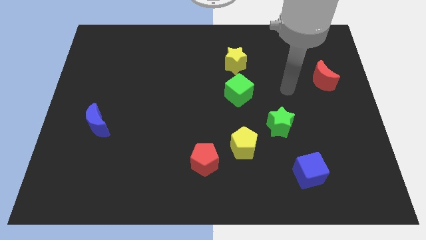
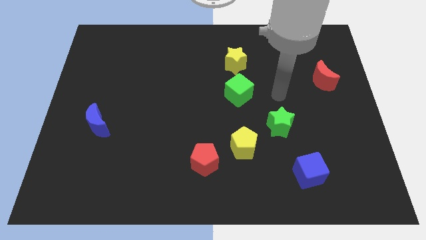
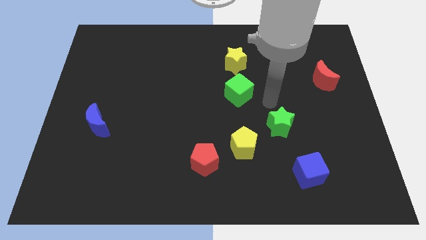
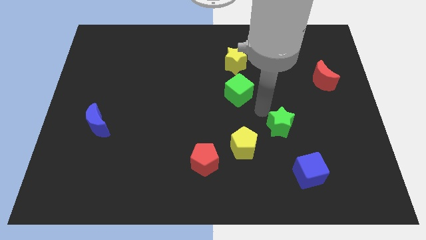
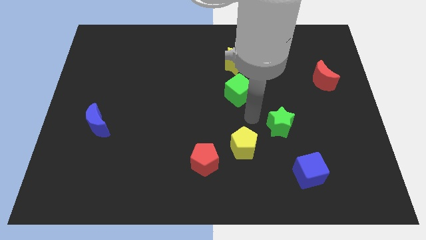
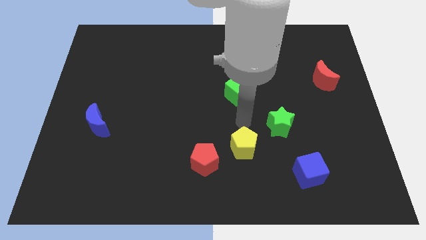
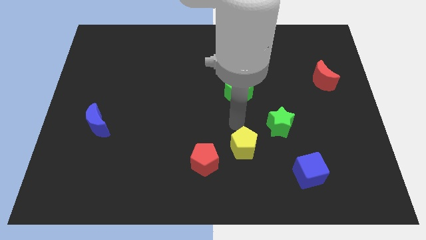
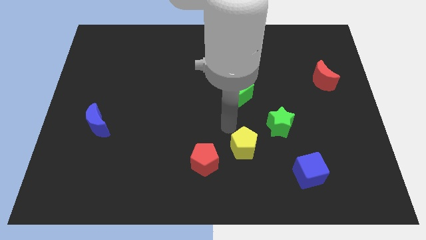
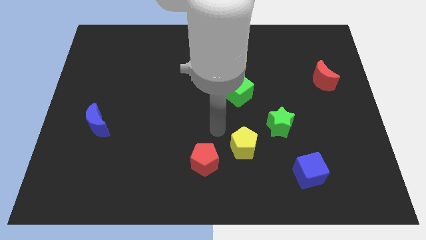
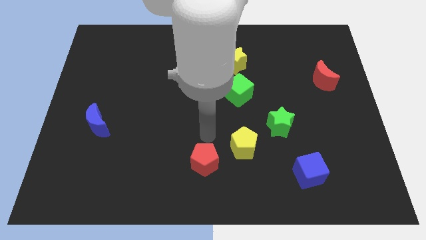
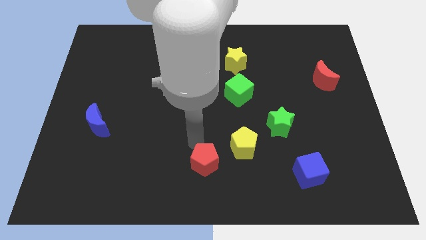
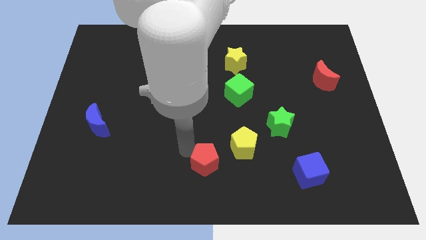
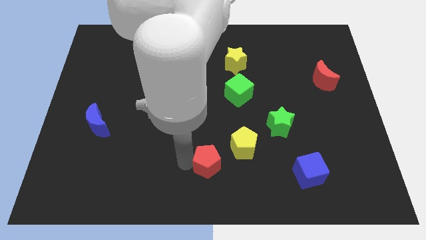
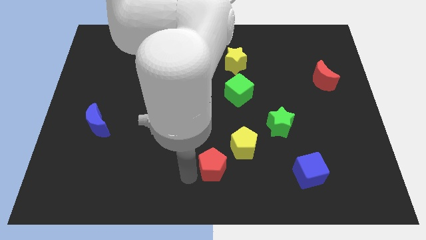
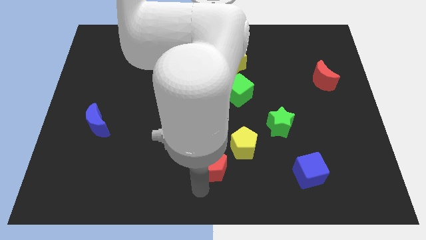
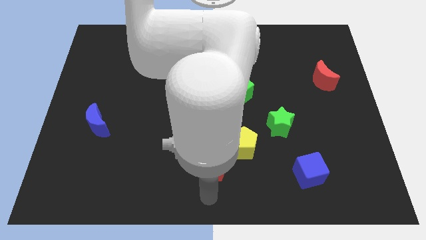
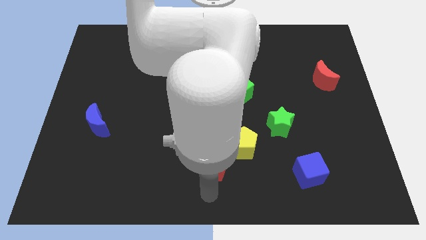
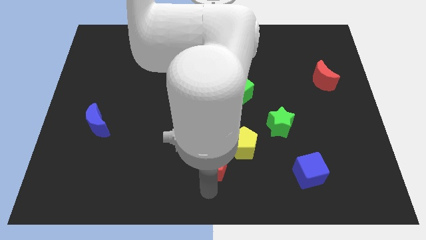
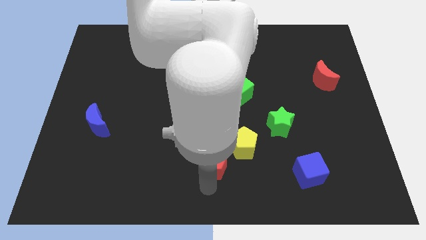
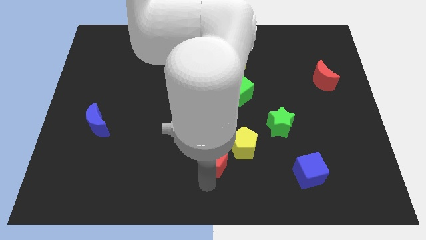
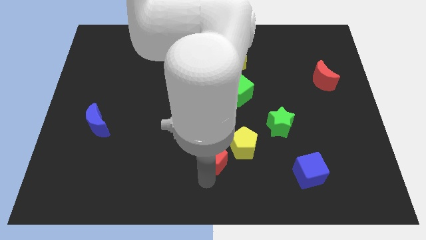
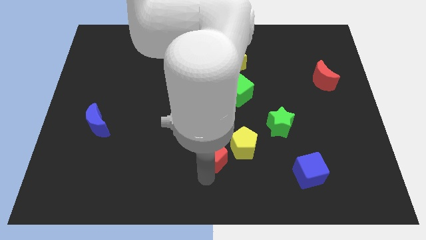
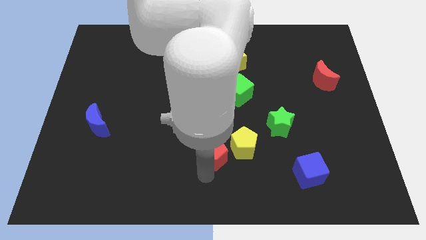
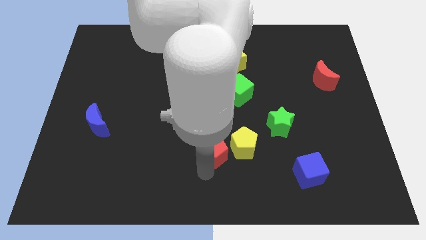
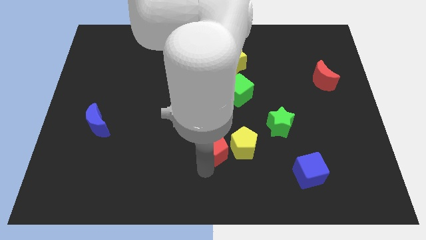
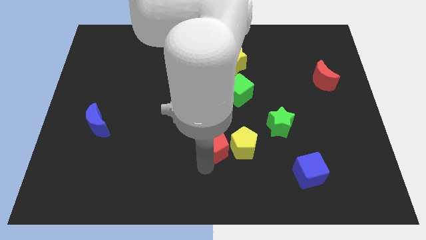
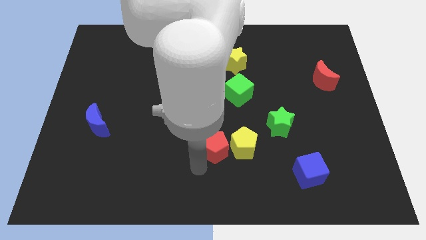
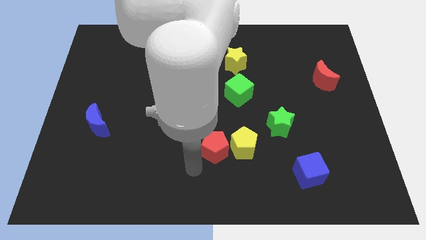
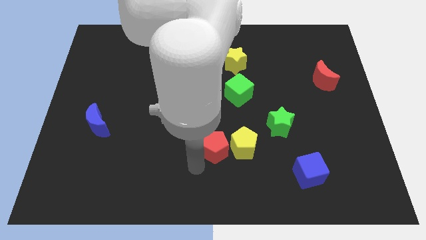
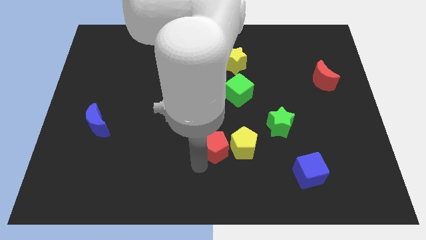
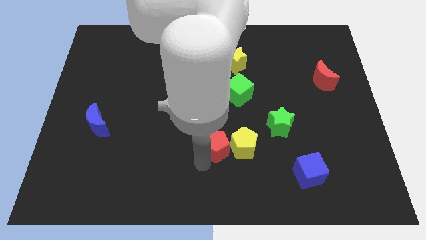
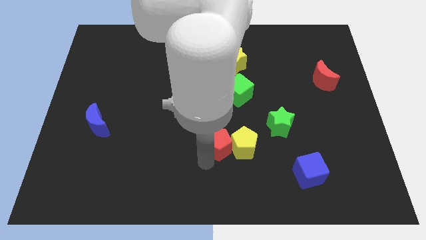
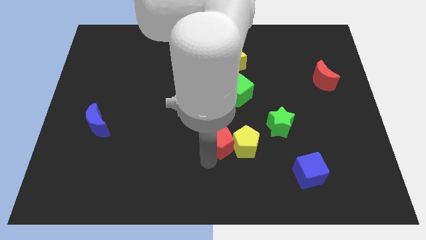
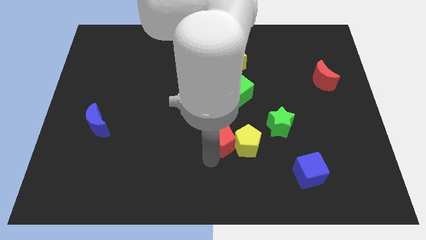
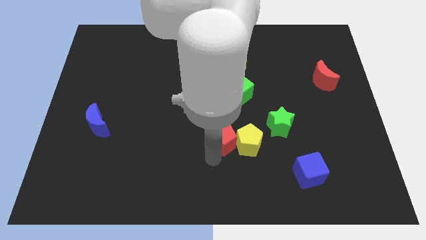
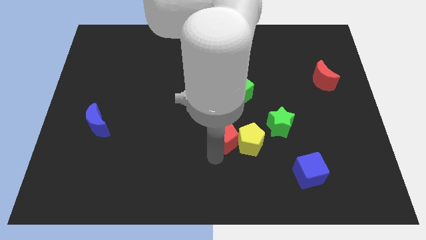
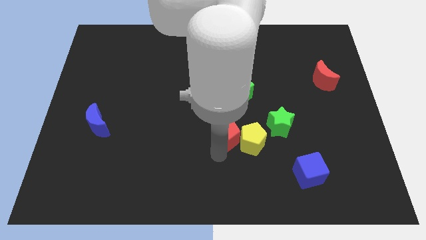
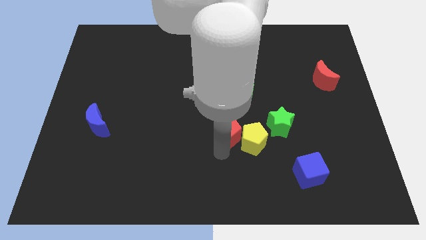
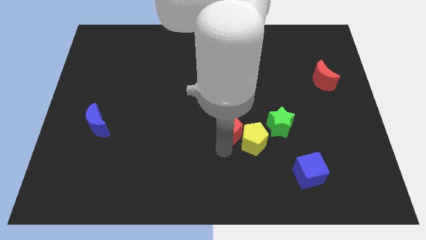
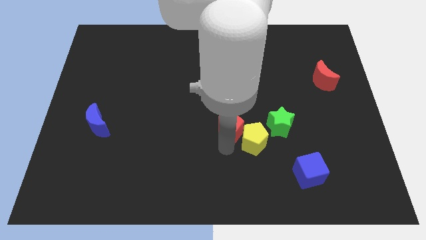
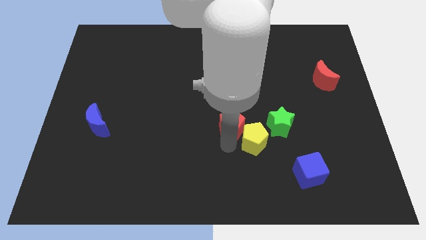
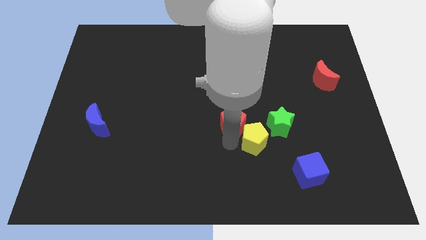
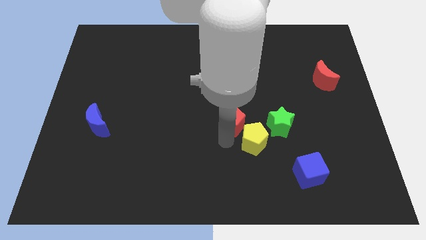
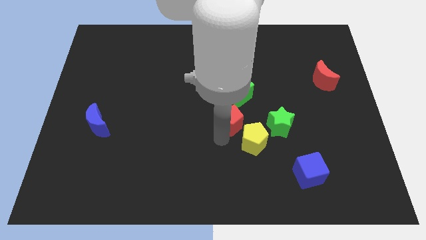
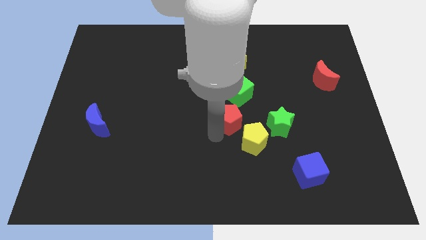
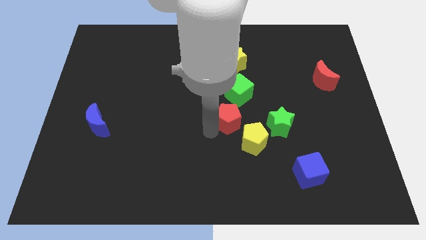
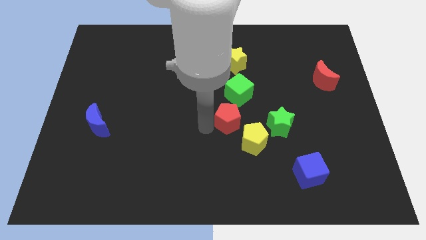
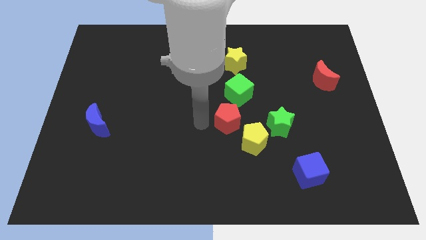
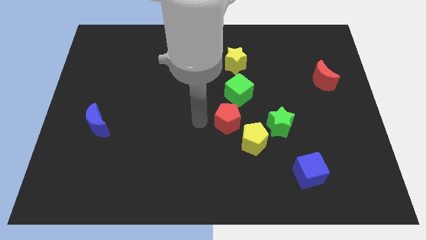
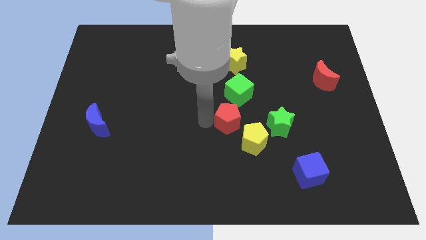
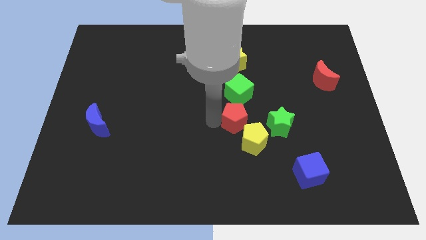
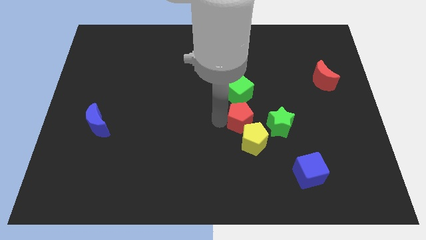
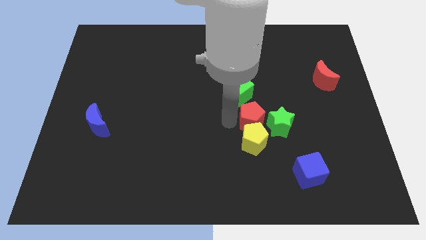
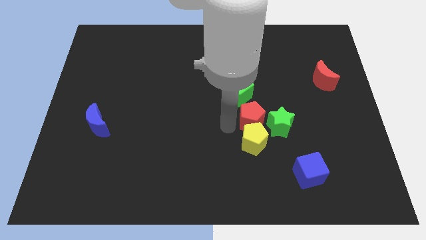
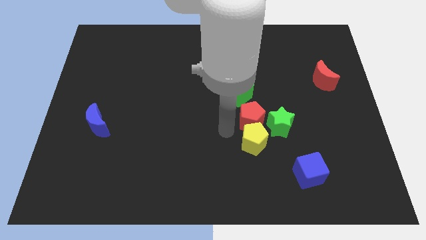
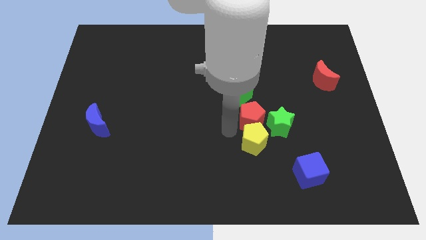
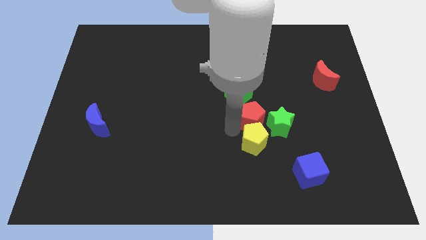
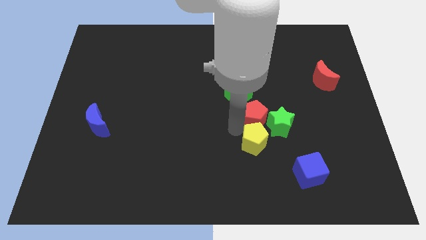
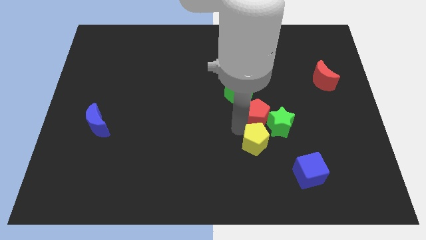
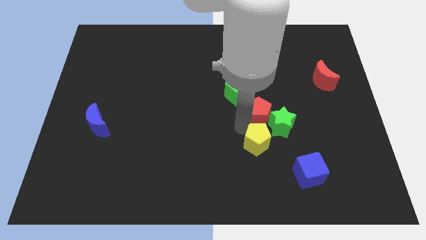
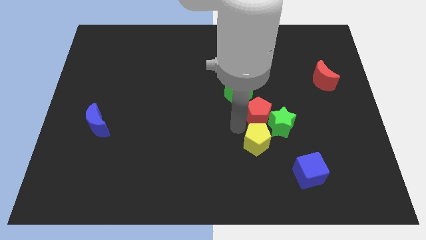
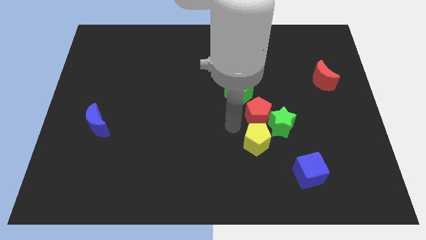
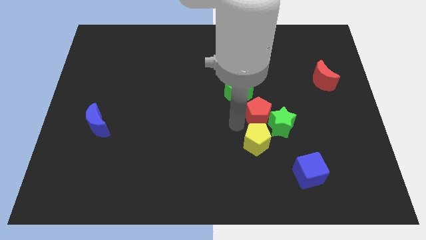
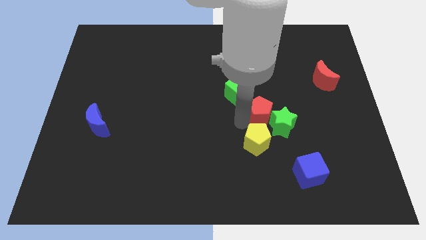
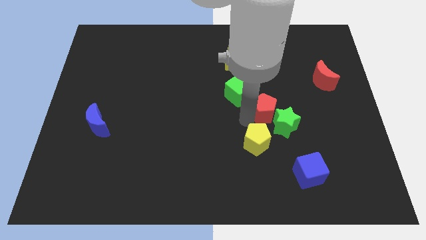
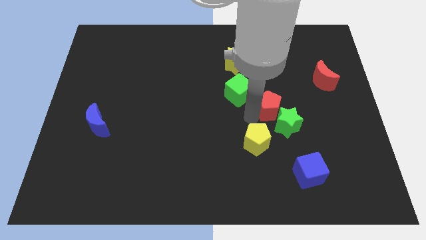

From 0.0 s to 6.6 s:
slide the red pentagon just right of the green cube

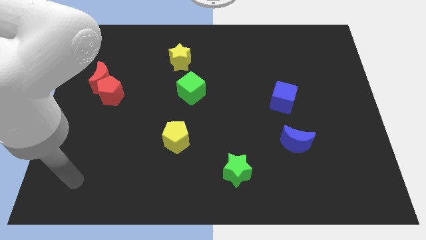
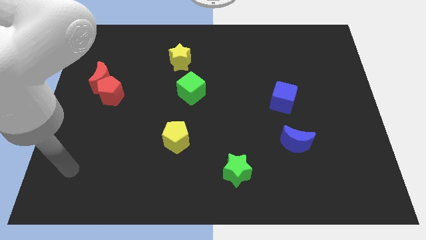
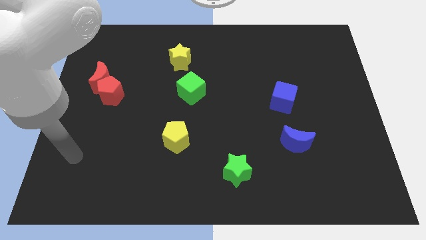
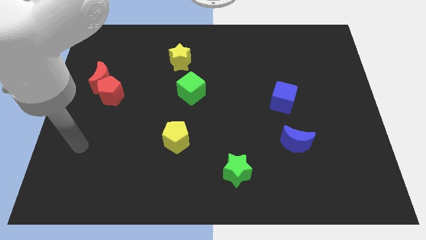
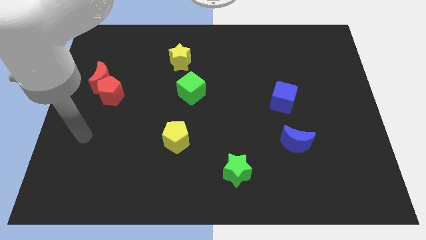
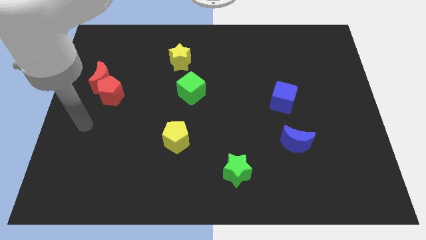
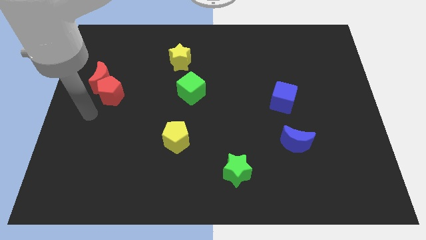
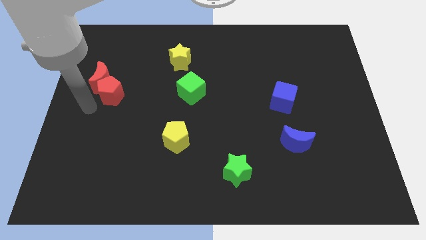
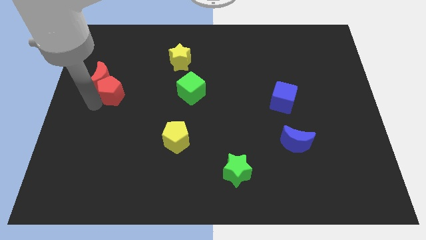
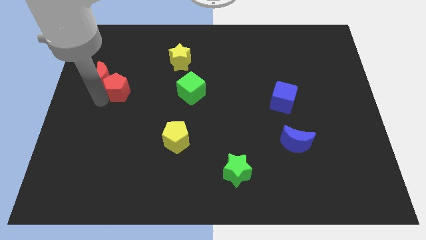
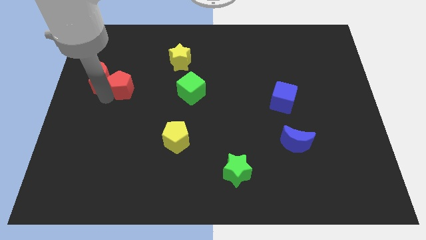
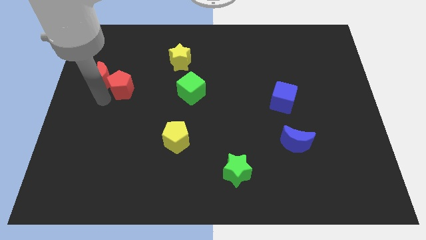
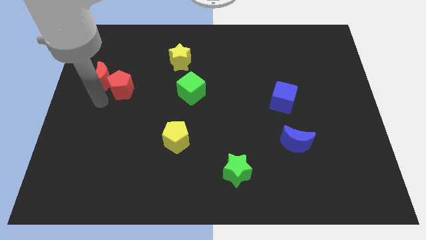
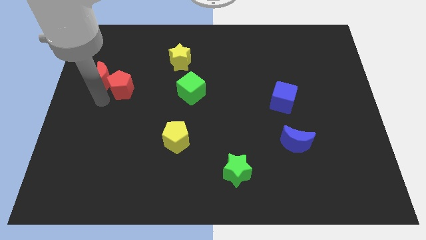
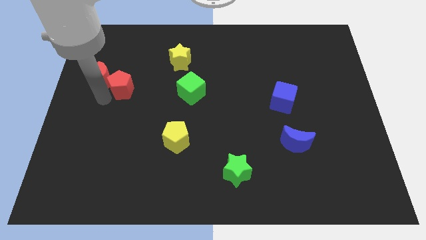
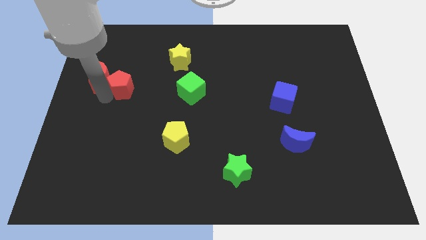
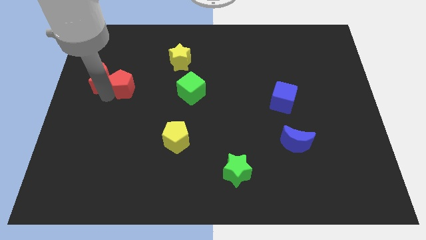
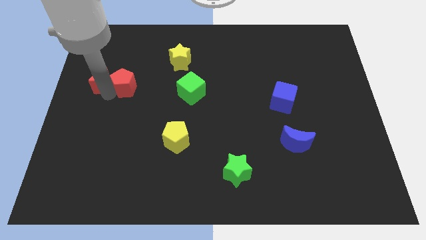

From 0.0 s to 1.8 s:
slide the red pentagon diagonally up and to the right of the red moon
